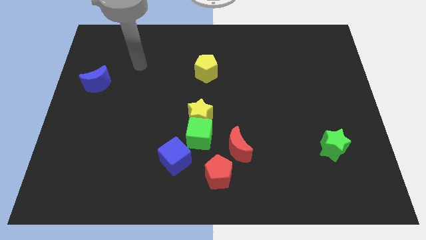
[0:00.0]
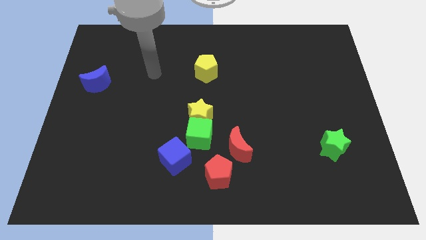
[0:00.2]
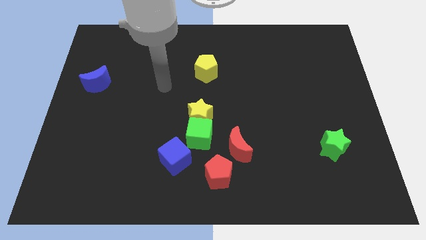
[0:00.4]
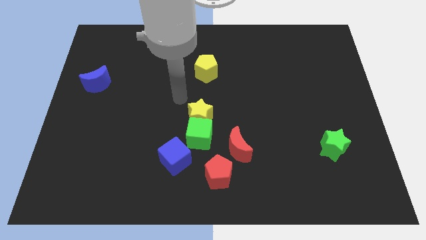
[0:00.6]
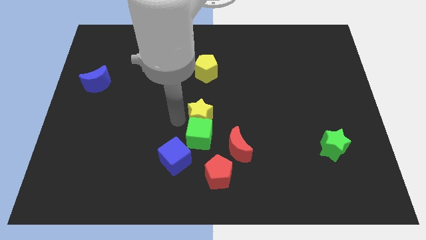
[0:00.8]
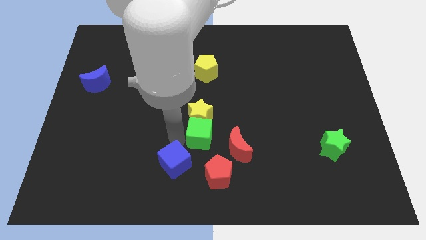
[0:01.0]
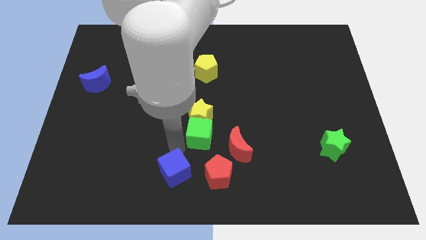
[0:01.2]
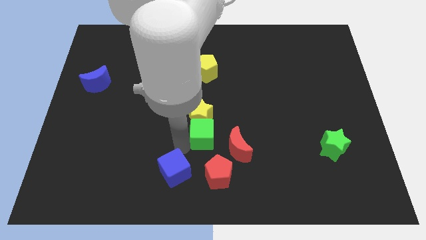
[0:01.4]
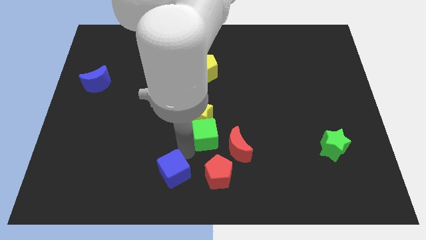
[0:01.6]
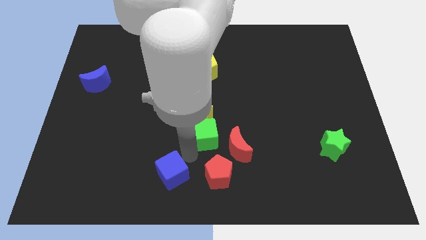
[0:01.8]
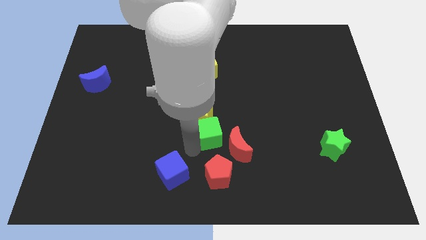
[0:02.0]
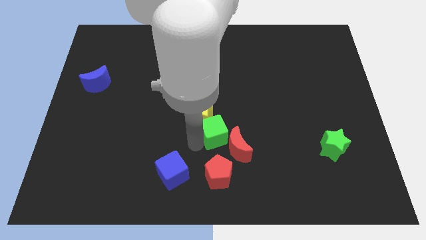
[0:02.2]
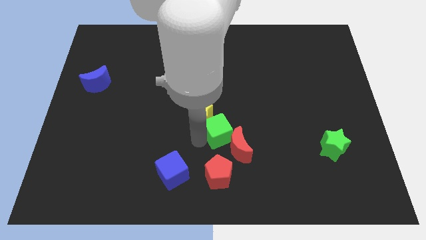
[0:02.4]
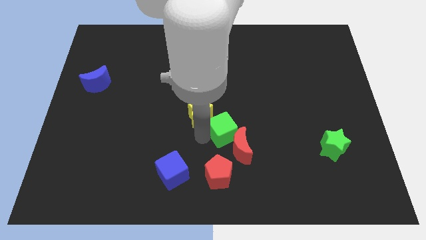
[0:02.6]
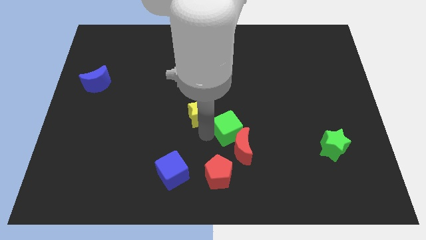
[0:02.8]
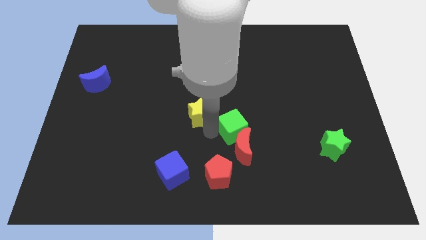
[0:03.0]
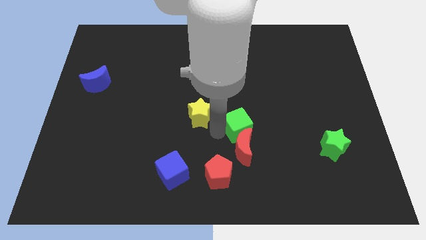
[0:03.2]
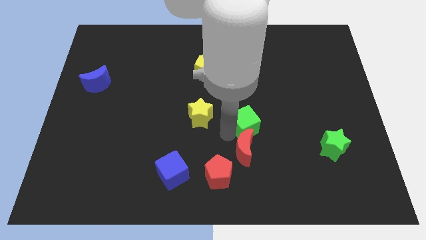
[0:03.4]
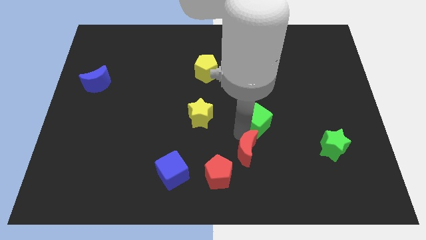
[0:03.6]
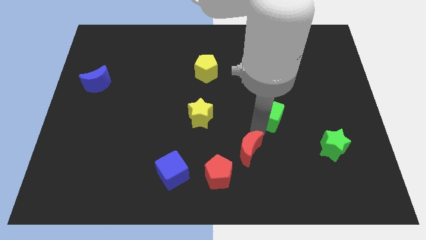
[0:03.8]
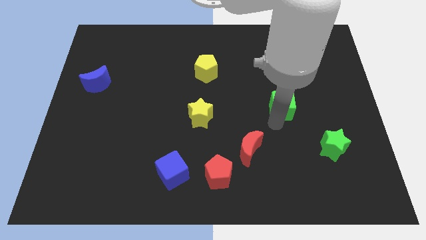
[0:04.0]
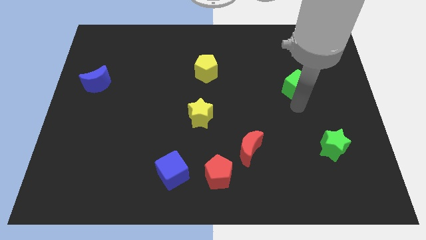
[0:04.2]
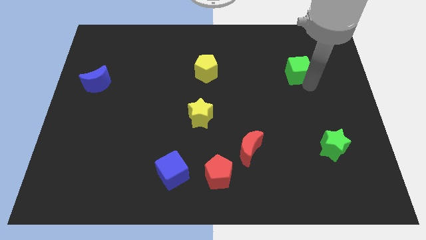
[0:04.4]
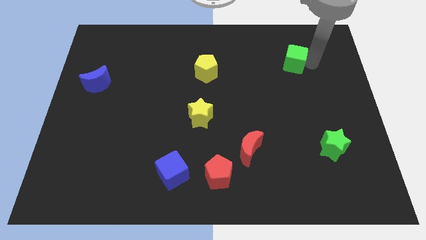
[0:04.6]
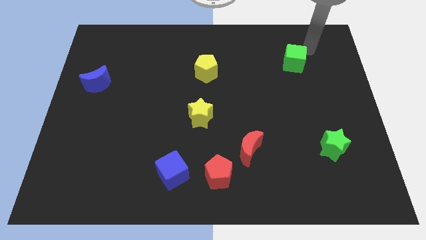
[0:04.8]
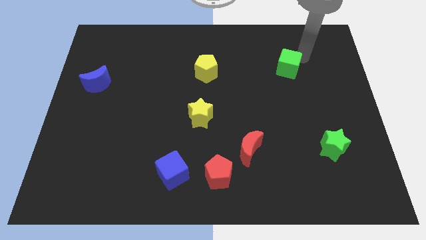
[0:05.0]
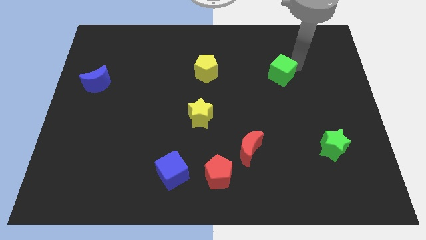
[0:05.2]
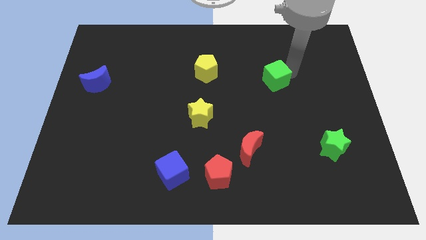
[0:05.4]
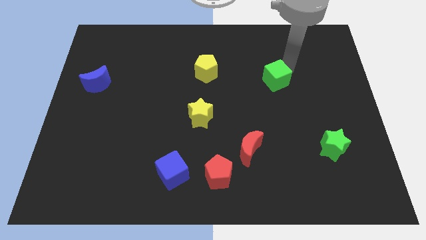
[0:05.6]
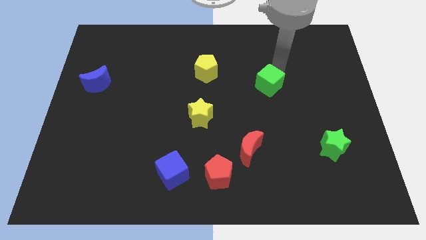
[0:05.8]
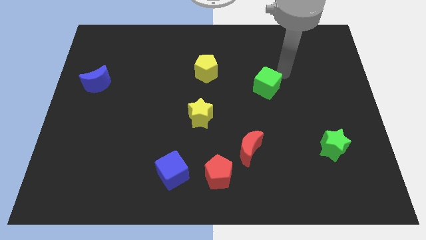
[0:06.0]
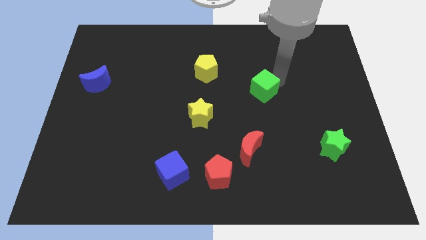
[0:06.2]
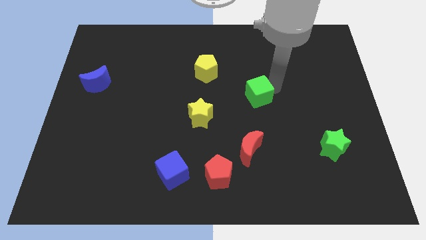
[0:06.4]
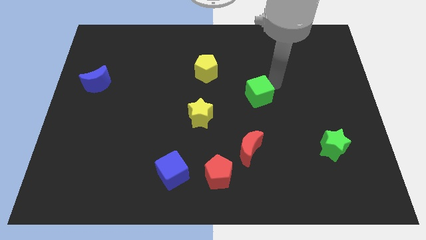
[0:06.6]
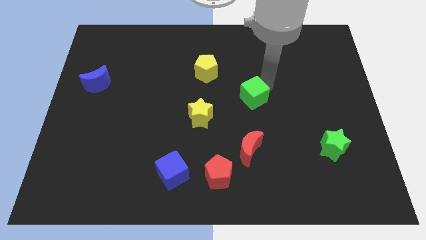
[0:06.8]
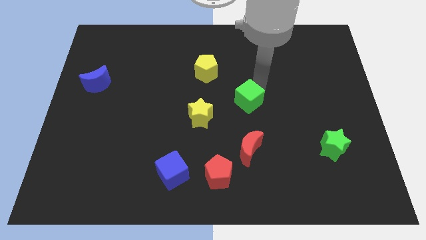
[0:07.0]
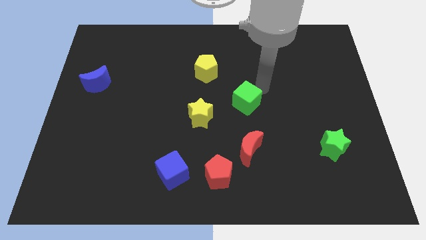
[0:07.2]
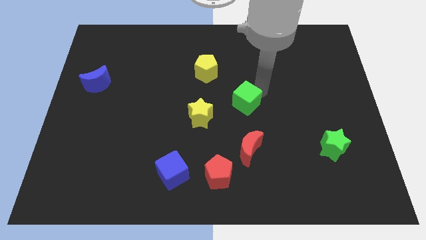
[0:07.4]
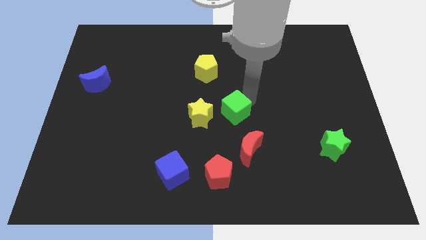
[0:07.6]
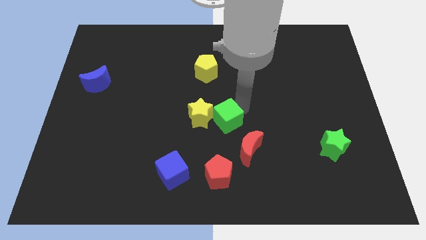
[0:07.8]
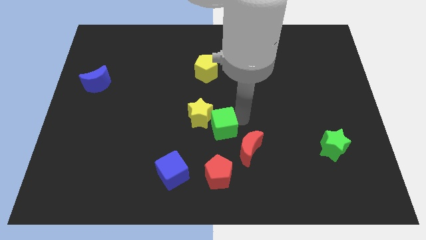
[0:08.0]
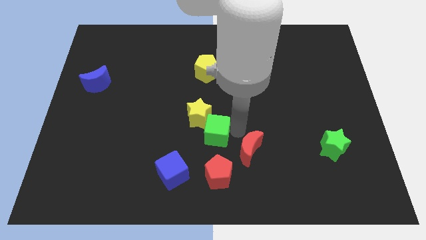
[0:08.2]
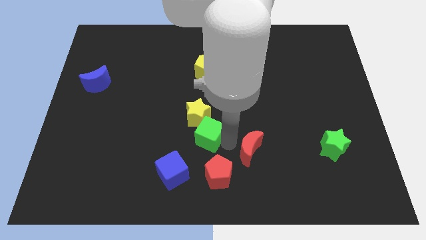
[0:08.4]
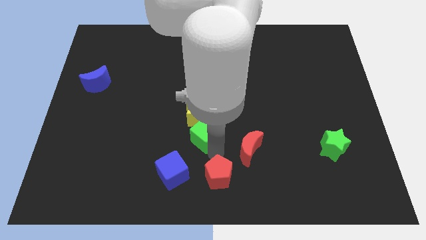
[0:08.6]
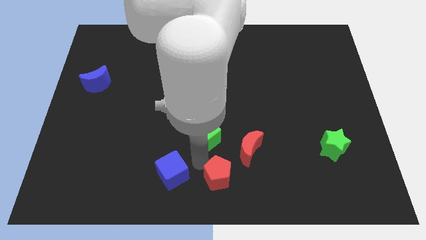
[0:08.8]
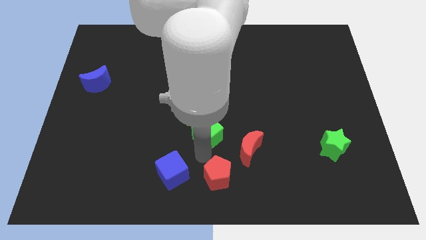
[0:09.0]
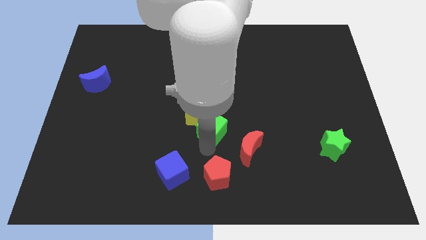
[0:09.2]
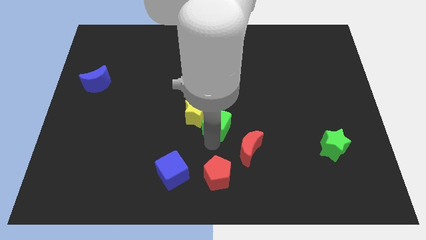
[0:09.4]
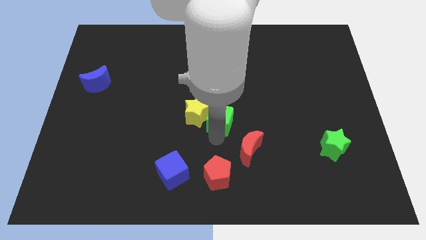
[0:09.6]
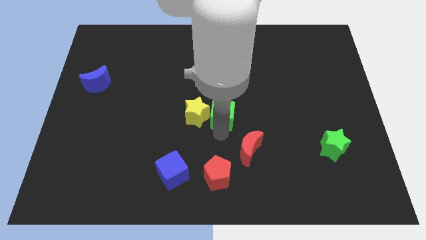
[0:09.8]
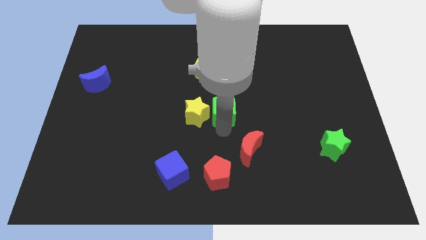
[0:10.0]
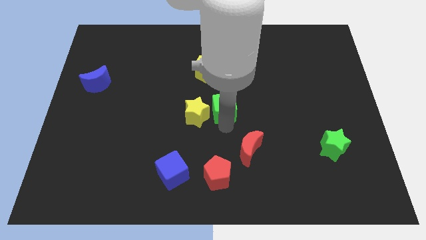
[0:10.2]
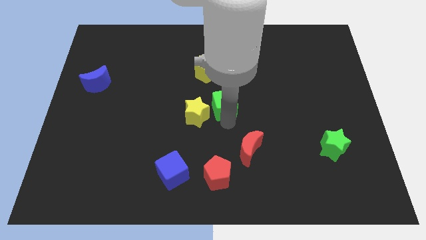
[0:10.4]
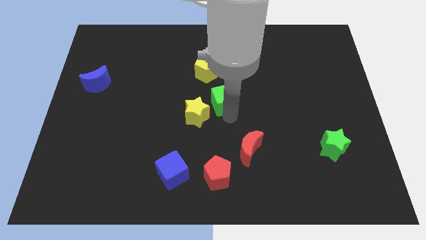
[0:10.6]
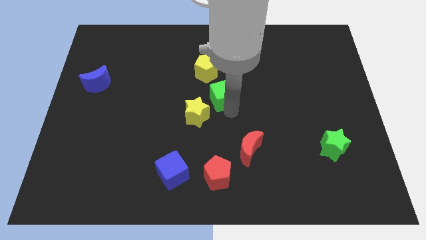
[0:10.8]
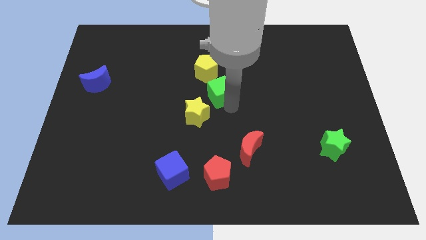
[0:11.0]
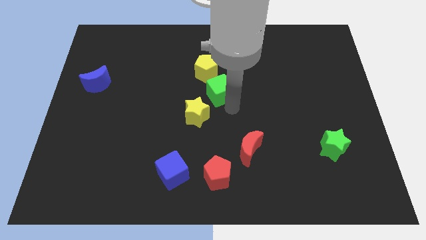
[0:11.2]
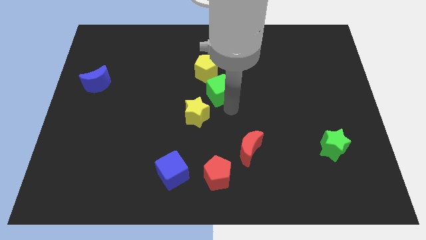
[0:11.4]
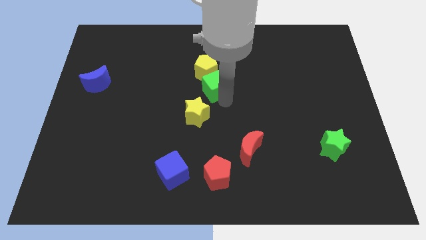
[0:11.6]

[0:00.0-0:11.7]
push the green cube to the yellow pentagon

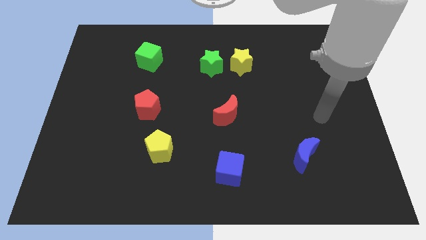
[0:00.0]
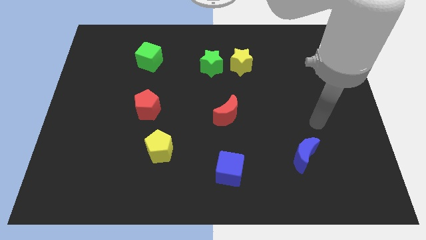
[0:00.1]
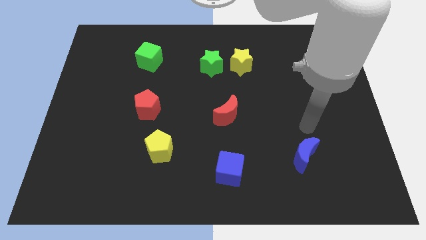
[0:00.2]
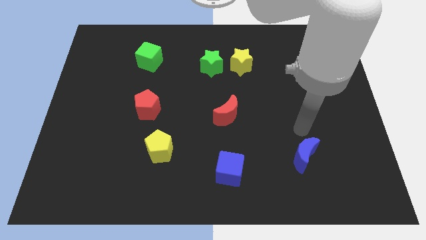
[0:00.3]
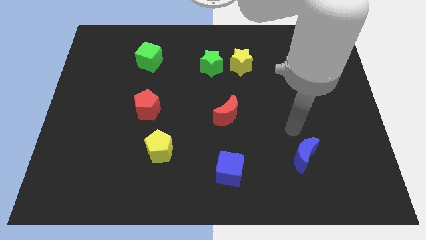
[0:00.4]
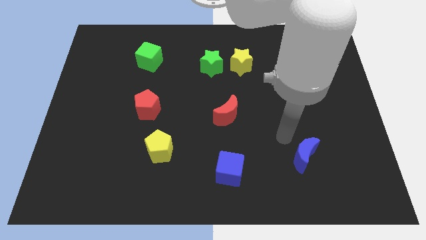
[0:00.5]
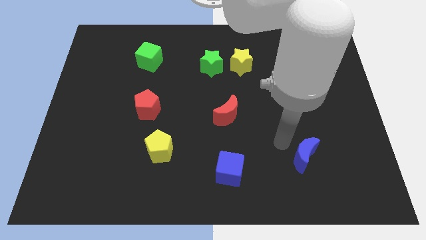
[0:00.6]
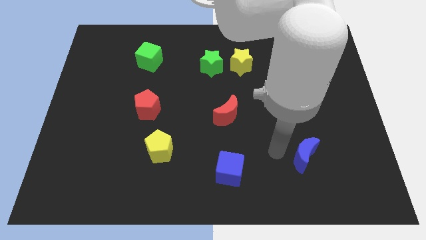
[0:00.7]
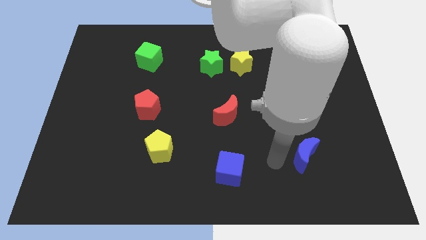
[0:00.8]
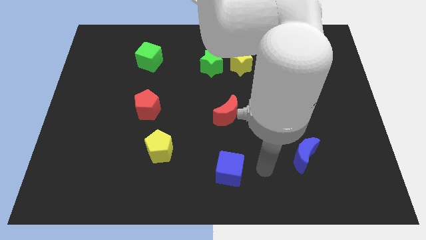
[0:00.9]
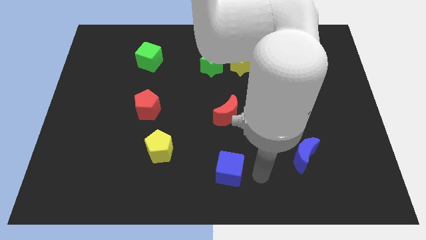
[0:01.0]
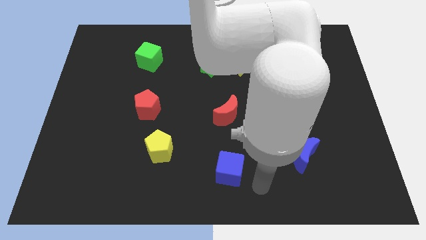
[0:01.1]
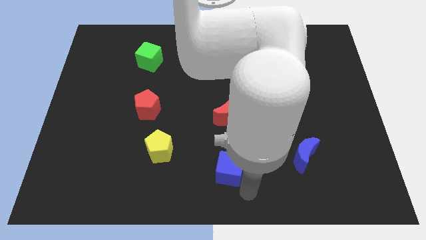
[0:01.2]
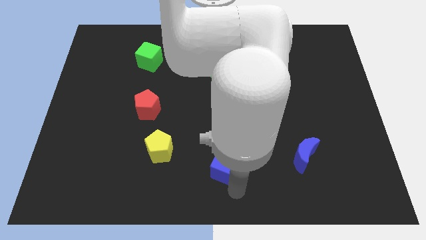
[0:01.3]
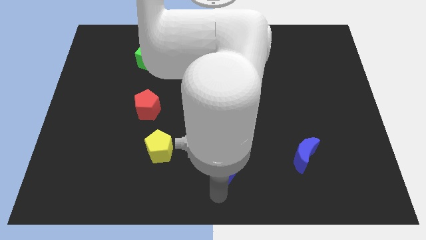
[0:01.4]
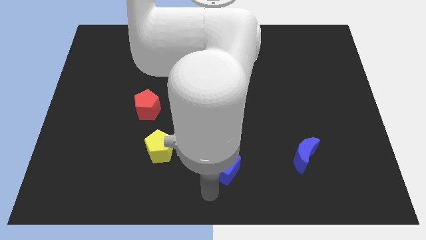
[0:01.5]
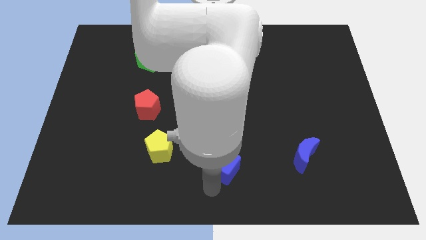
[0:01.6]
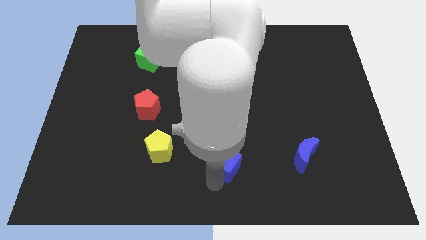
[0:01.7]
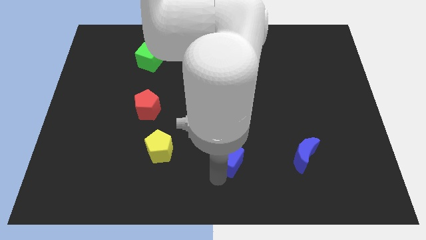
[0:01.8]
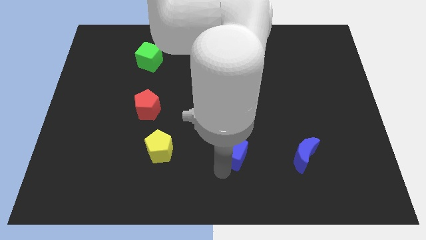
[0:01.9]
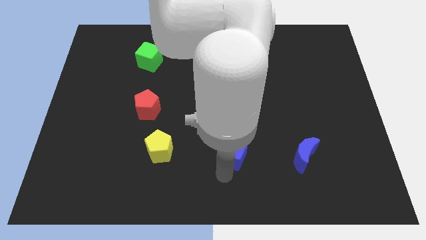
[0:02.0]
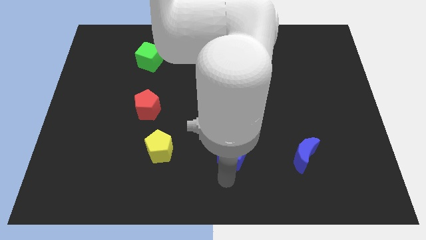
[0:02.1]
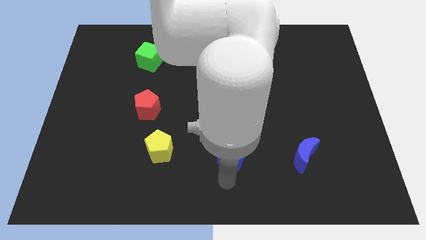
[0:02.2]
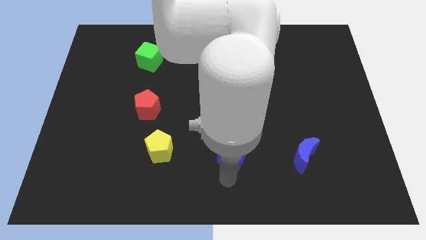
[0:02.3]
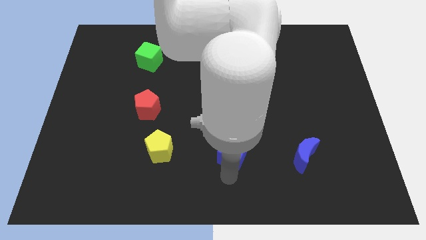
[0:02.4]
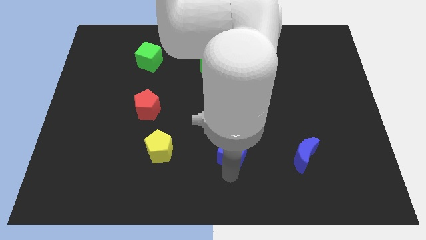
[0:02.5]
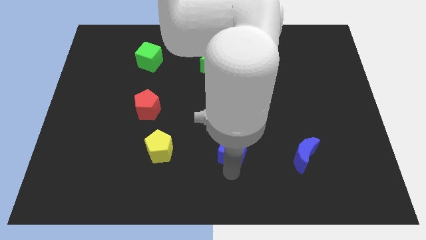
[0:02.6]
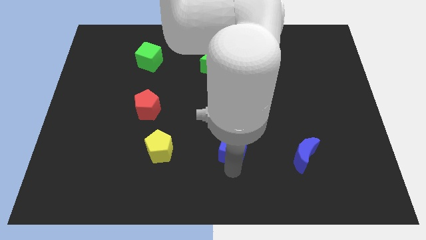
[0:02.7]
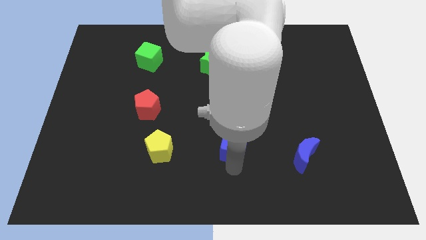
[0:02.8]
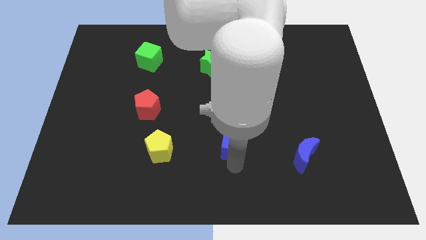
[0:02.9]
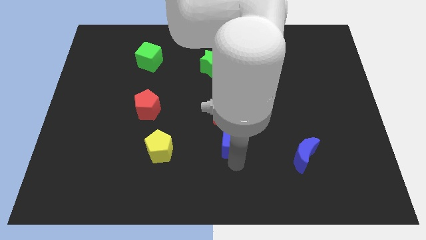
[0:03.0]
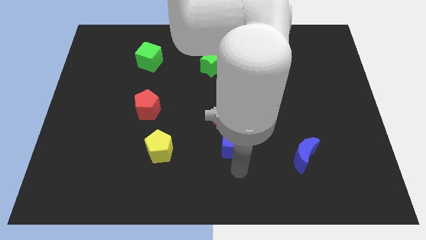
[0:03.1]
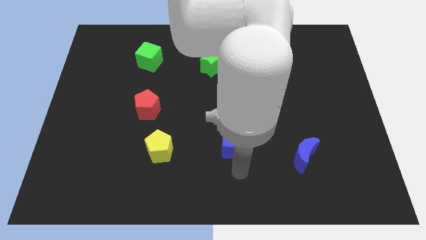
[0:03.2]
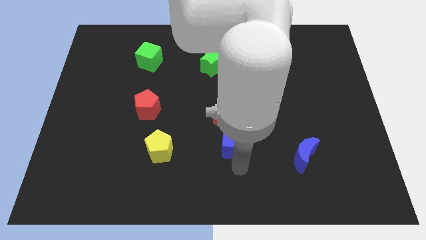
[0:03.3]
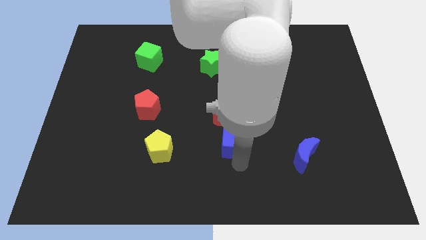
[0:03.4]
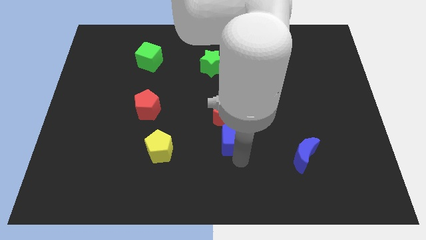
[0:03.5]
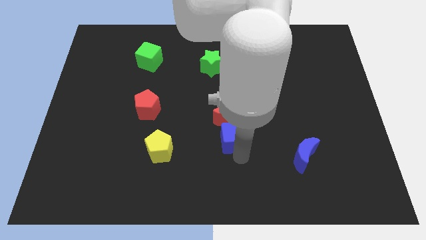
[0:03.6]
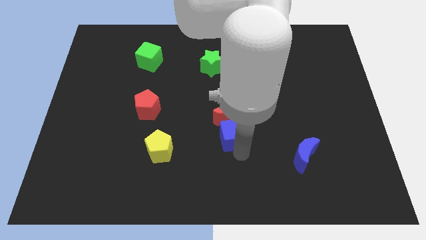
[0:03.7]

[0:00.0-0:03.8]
push the blue cube next to the red moon
